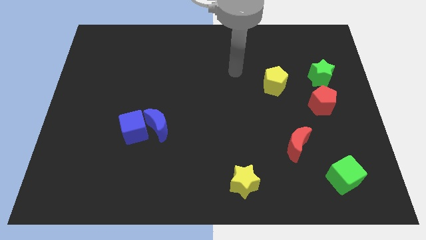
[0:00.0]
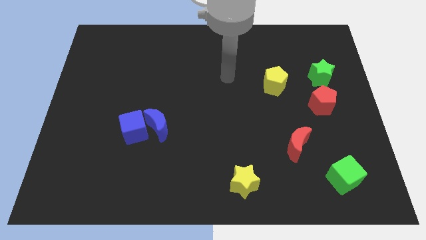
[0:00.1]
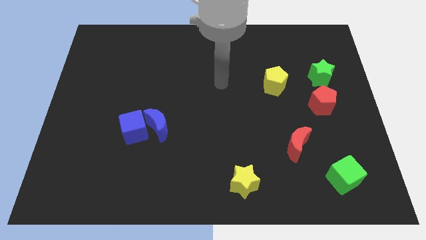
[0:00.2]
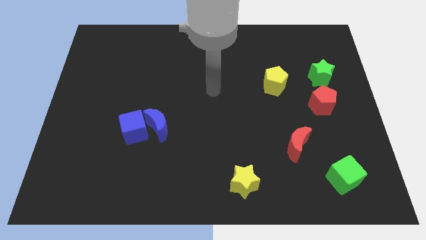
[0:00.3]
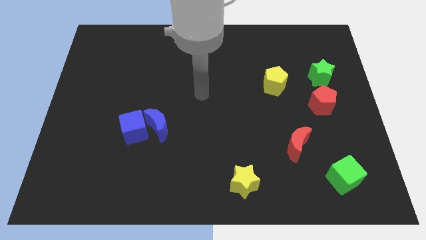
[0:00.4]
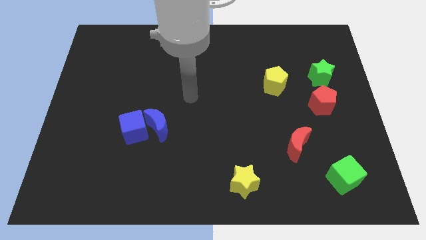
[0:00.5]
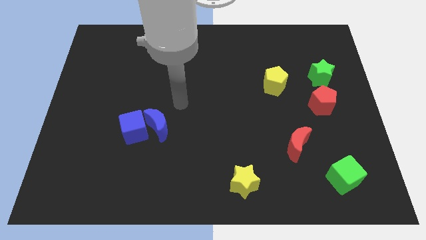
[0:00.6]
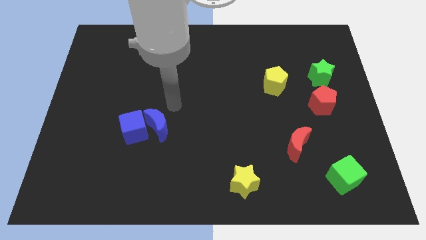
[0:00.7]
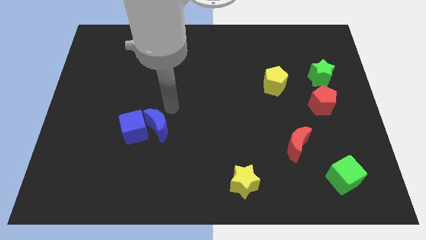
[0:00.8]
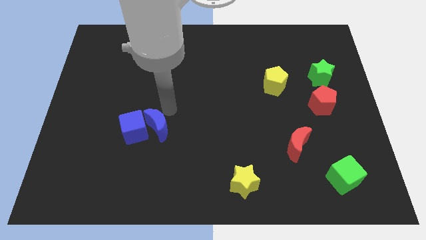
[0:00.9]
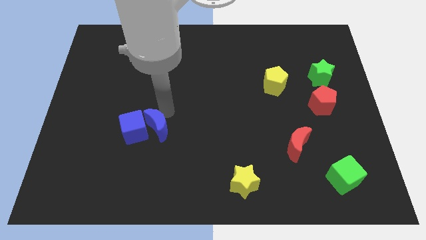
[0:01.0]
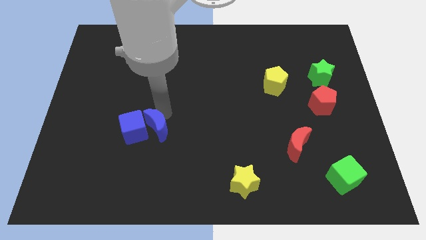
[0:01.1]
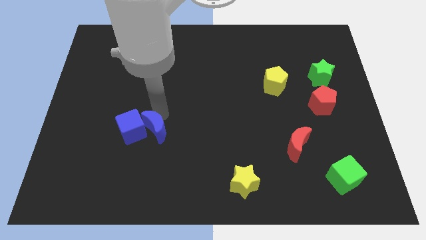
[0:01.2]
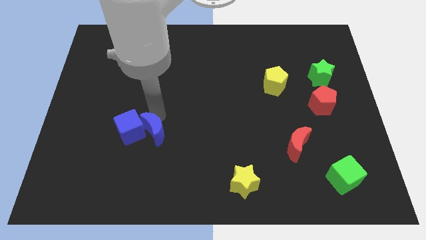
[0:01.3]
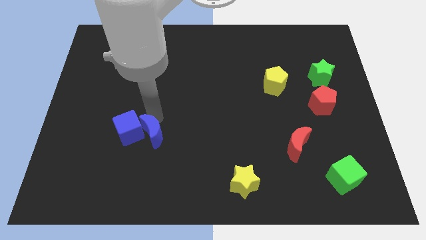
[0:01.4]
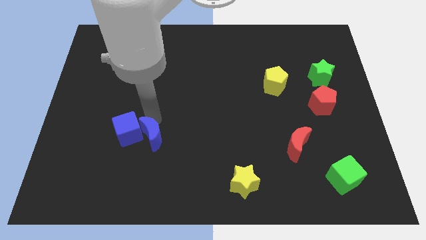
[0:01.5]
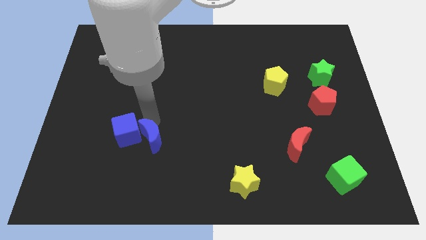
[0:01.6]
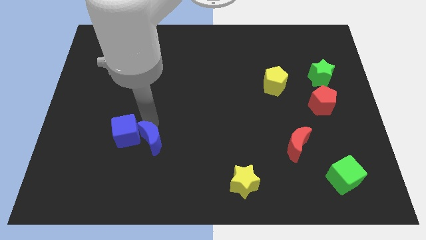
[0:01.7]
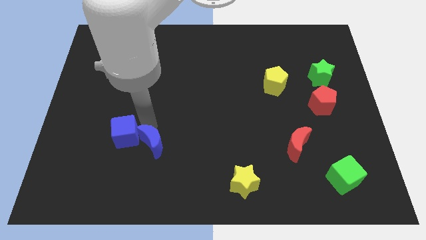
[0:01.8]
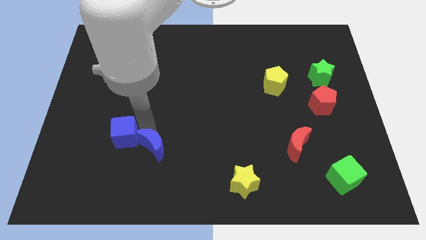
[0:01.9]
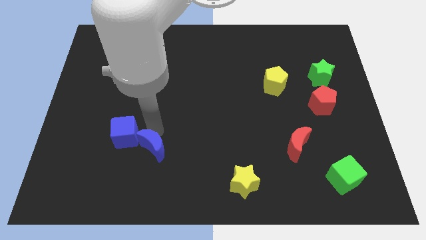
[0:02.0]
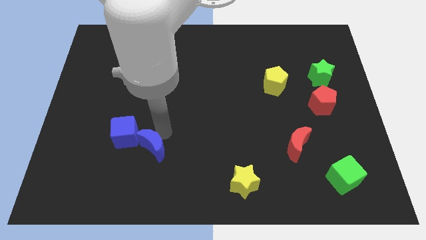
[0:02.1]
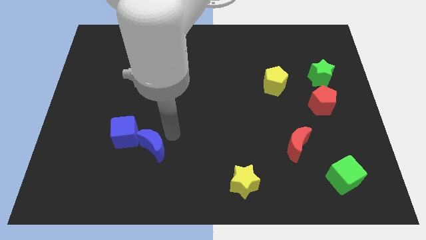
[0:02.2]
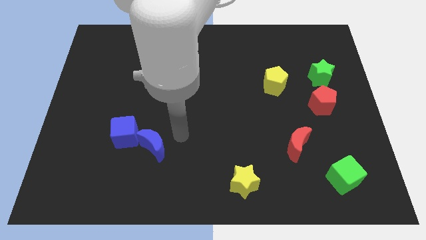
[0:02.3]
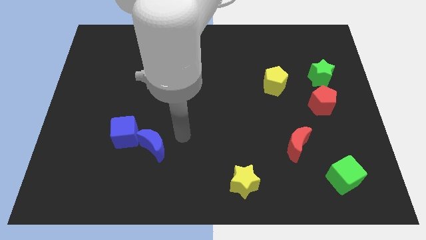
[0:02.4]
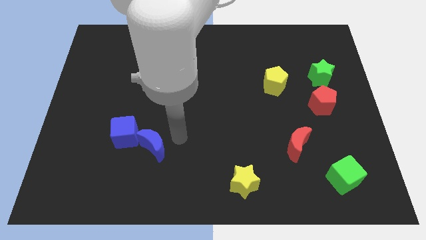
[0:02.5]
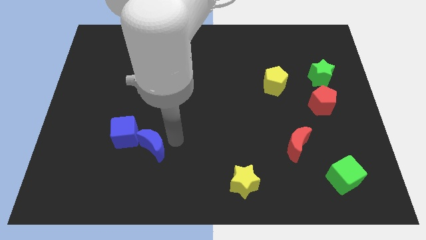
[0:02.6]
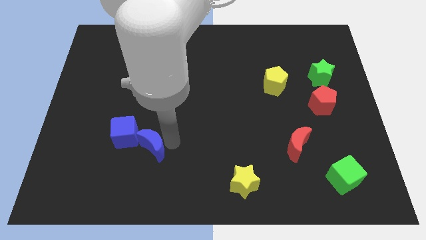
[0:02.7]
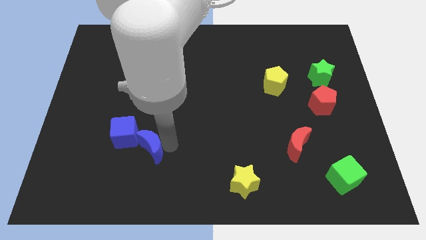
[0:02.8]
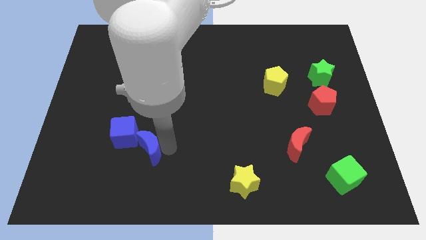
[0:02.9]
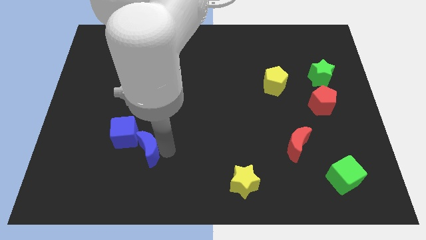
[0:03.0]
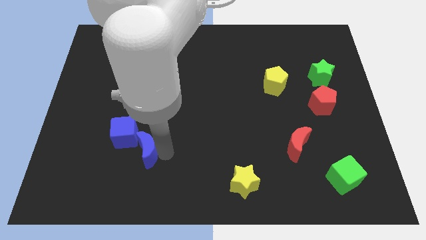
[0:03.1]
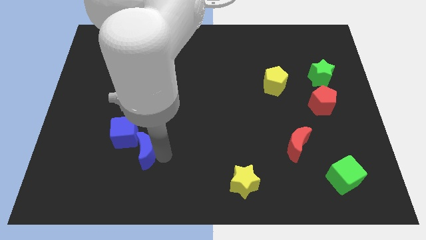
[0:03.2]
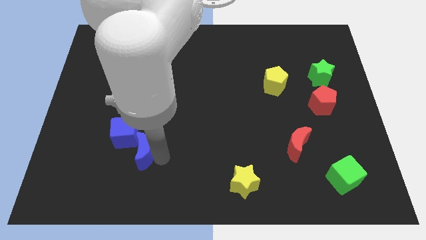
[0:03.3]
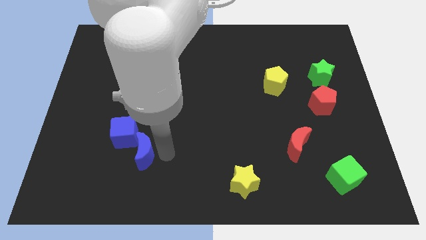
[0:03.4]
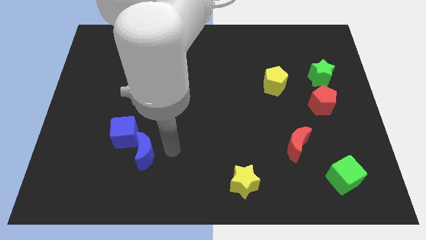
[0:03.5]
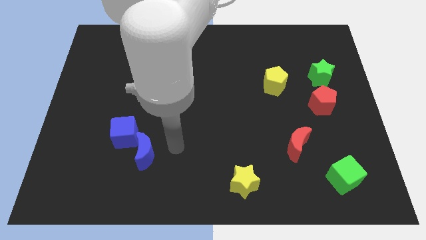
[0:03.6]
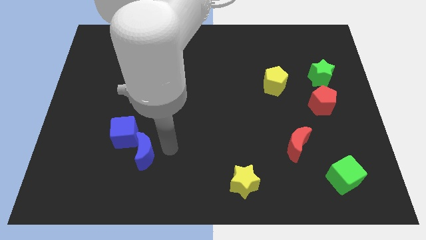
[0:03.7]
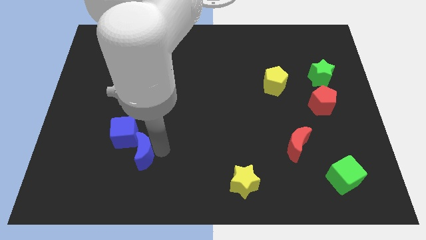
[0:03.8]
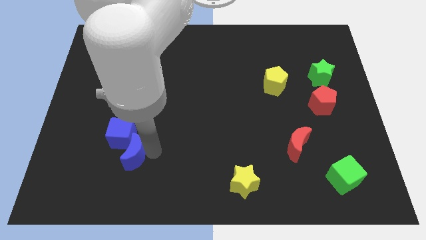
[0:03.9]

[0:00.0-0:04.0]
push the blue moon diagonally downwards and to the left a little

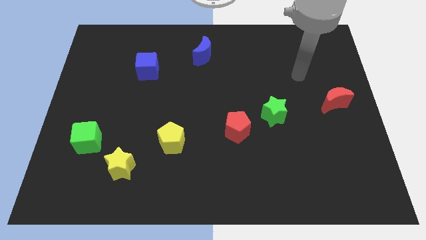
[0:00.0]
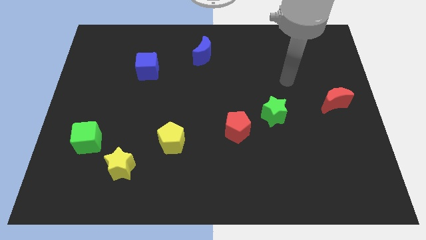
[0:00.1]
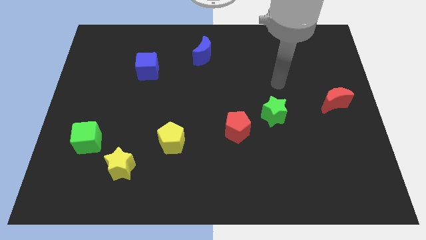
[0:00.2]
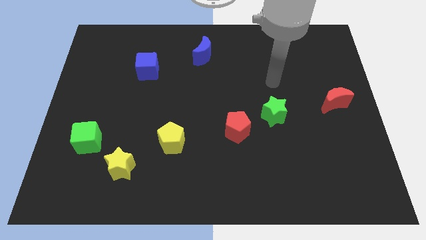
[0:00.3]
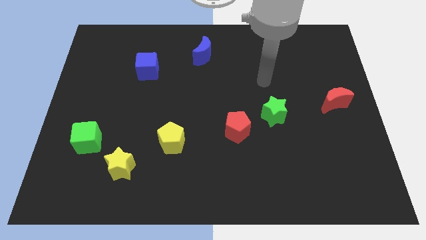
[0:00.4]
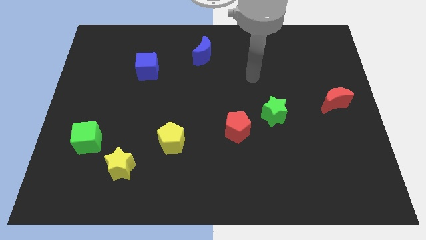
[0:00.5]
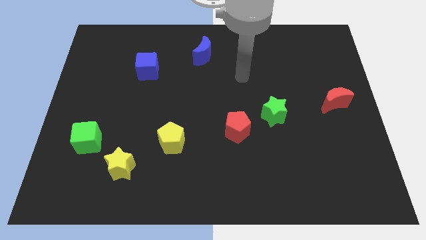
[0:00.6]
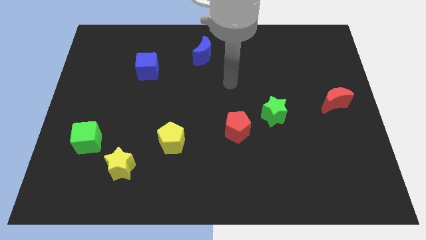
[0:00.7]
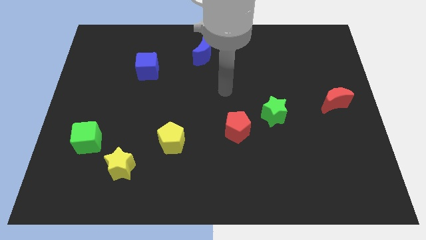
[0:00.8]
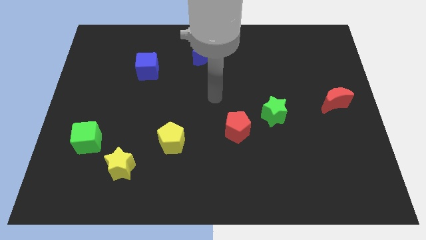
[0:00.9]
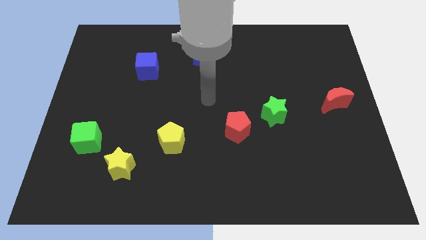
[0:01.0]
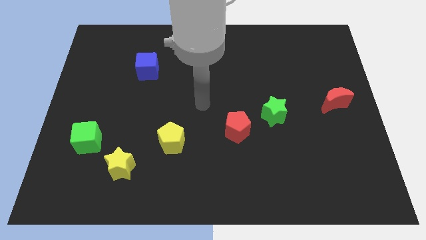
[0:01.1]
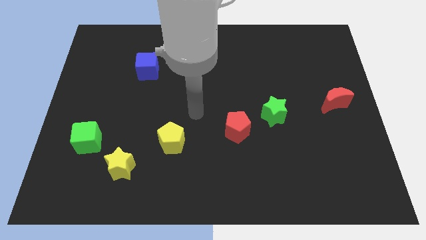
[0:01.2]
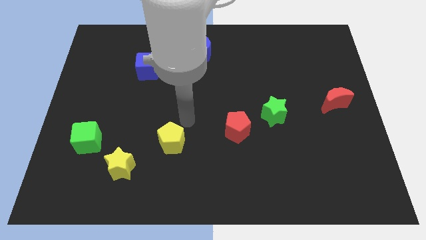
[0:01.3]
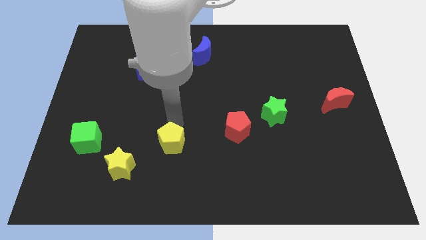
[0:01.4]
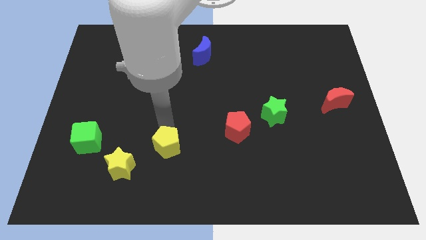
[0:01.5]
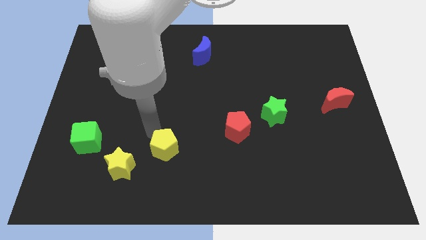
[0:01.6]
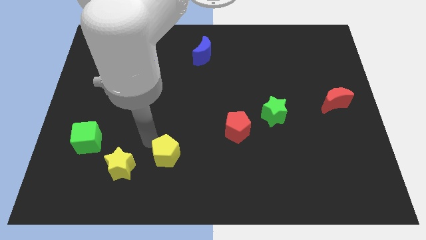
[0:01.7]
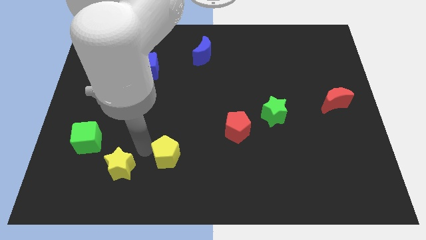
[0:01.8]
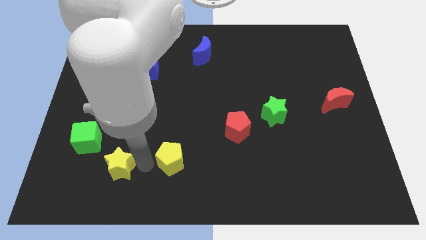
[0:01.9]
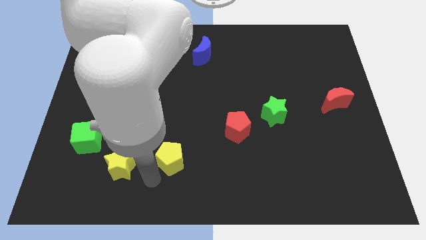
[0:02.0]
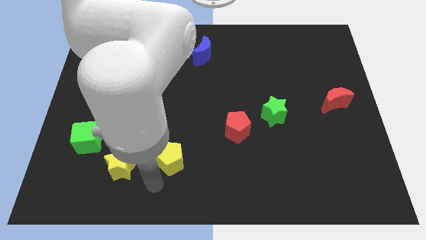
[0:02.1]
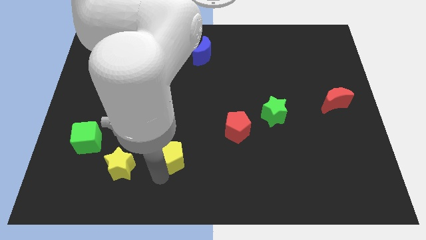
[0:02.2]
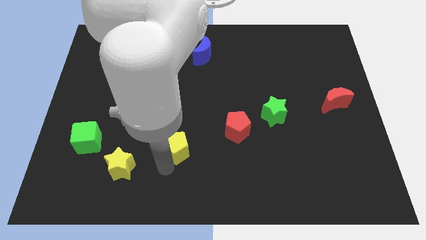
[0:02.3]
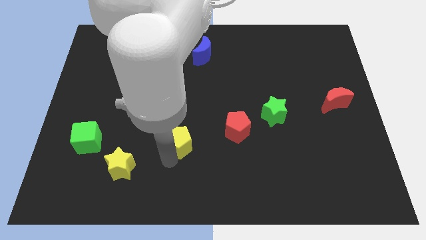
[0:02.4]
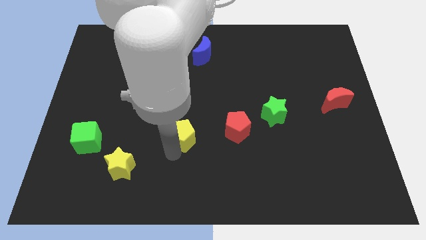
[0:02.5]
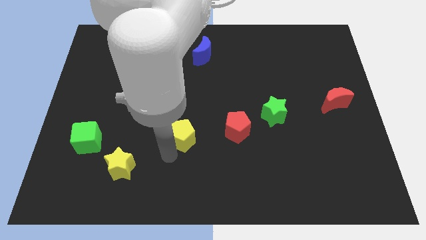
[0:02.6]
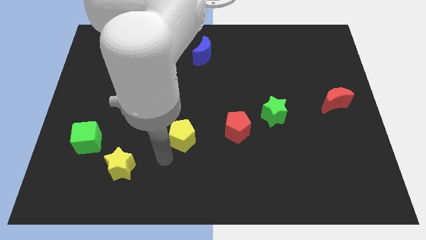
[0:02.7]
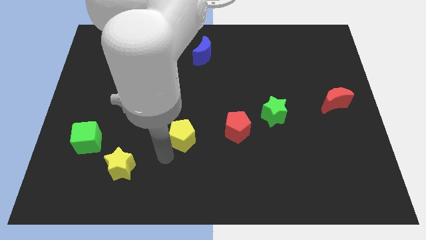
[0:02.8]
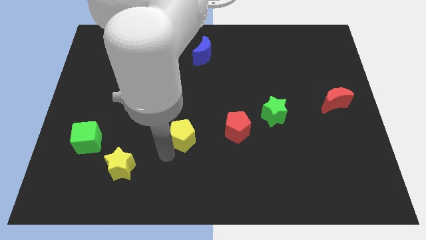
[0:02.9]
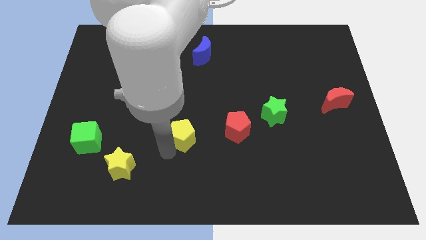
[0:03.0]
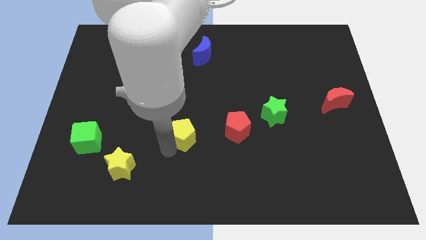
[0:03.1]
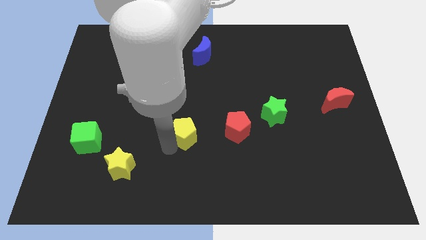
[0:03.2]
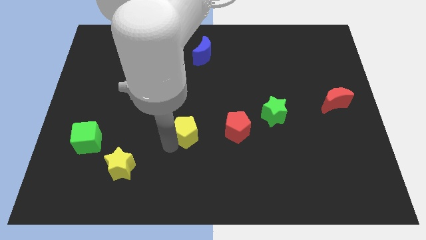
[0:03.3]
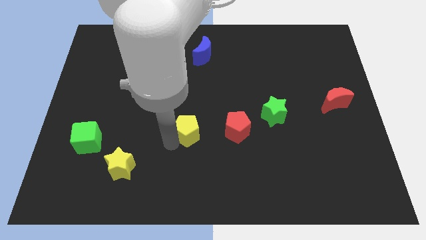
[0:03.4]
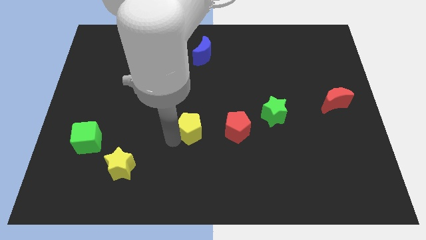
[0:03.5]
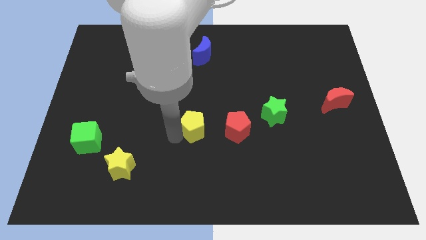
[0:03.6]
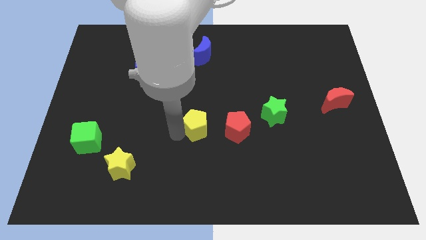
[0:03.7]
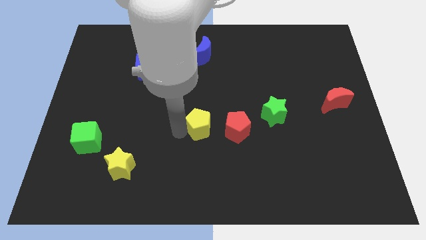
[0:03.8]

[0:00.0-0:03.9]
move the yellow pentagon slightly diagonally upwards and to the right

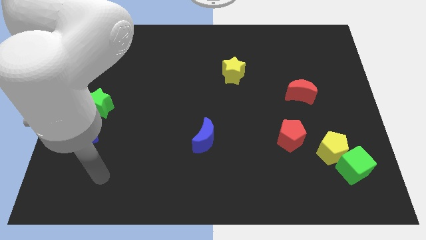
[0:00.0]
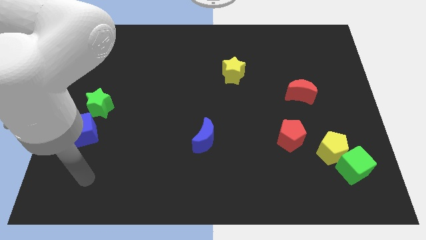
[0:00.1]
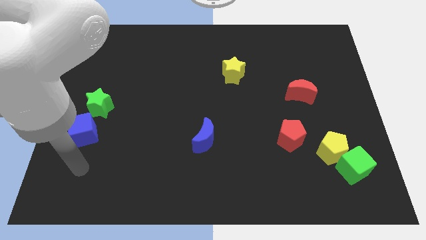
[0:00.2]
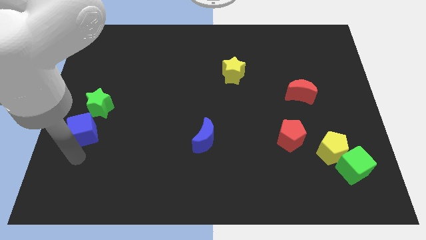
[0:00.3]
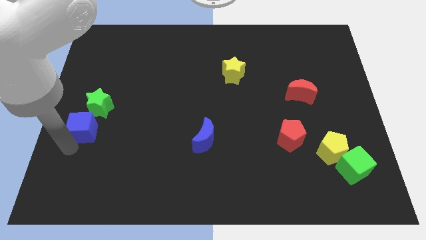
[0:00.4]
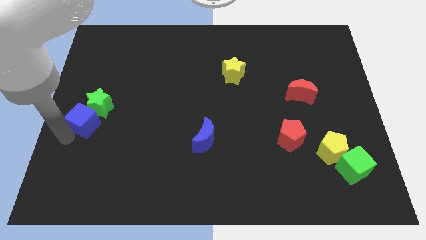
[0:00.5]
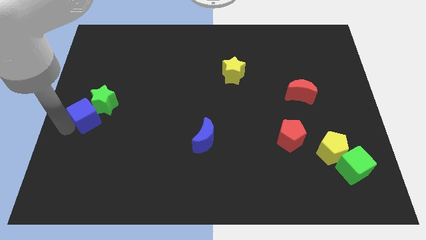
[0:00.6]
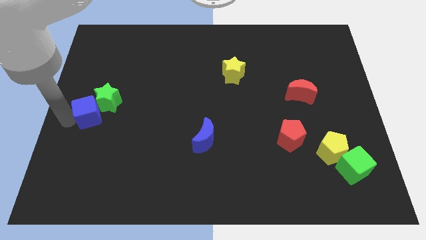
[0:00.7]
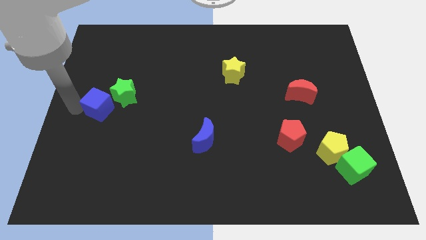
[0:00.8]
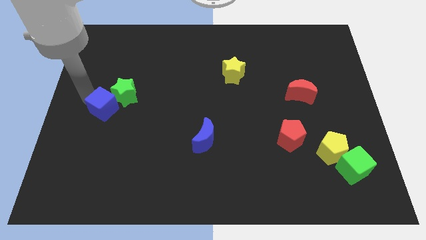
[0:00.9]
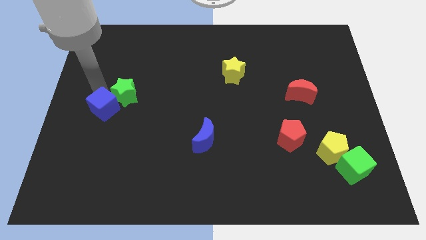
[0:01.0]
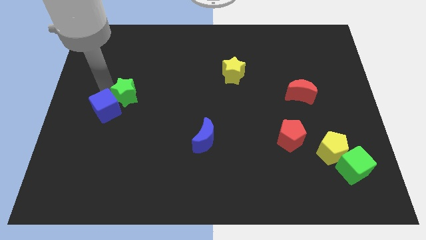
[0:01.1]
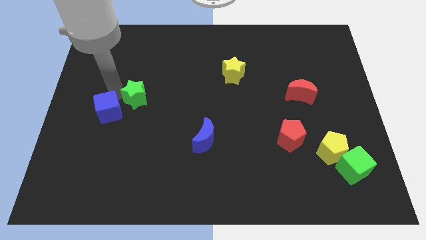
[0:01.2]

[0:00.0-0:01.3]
slide the green star right a bit
